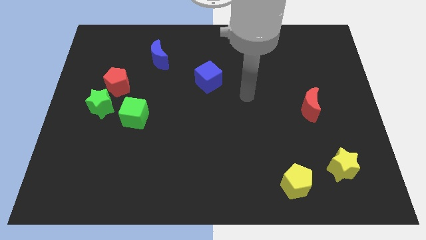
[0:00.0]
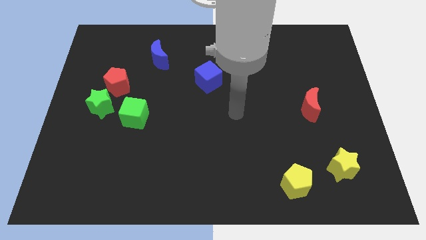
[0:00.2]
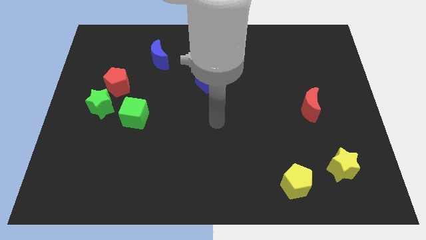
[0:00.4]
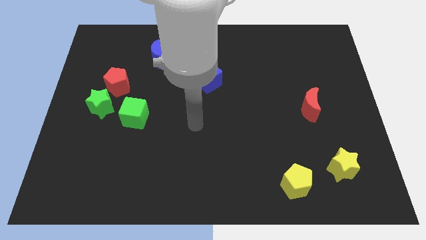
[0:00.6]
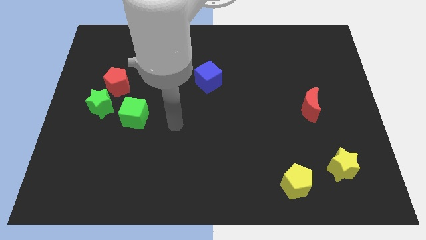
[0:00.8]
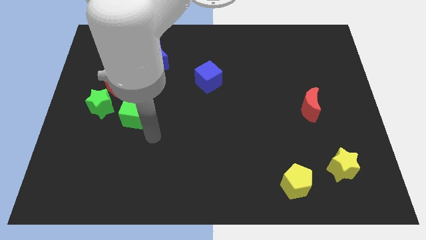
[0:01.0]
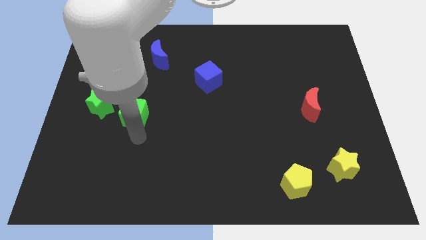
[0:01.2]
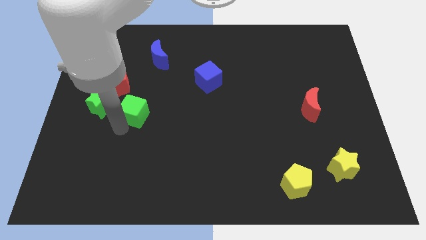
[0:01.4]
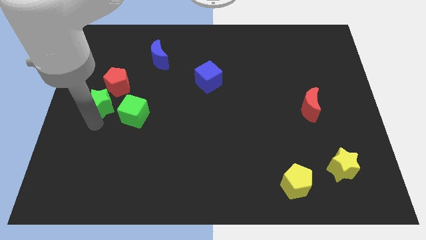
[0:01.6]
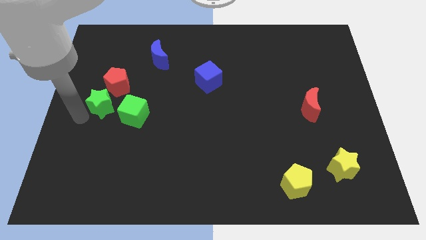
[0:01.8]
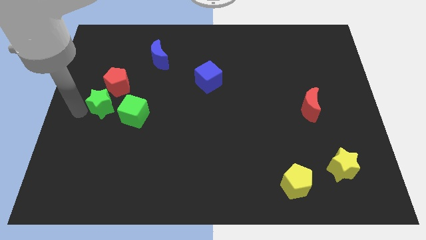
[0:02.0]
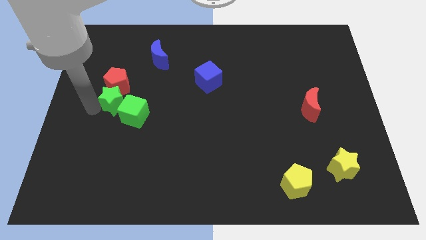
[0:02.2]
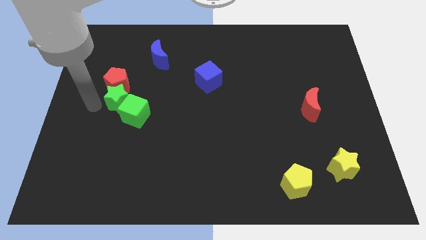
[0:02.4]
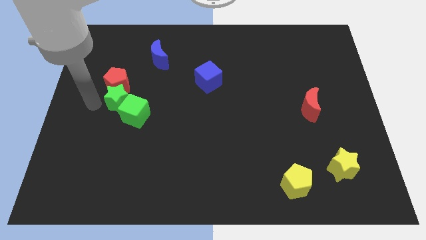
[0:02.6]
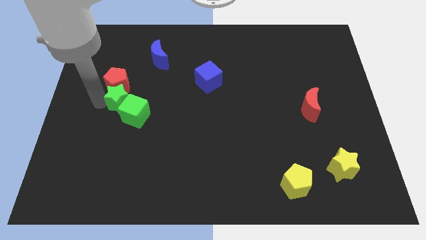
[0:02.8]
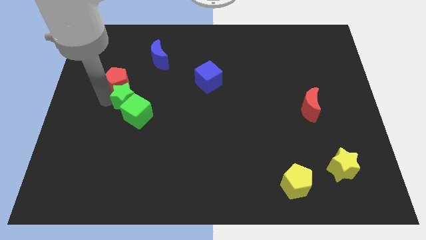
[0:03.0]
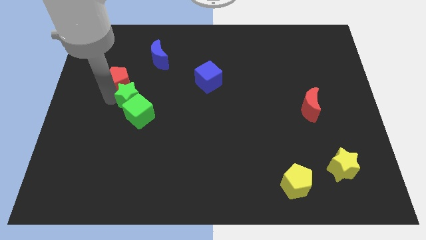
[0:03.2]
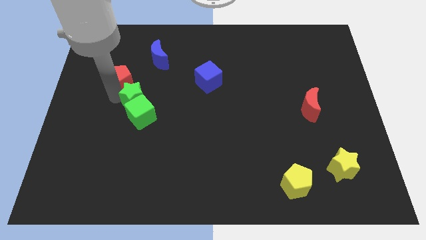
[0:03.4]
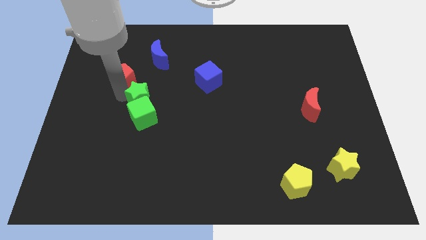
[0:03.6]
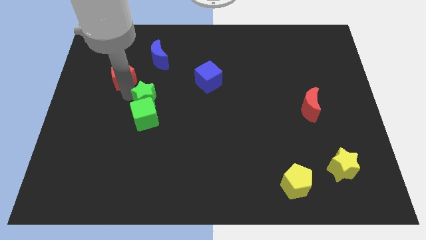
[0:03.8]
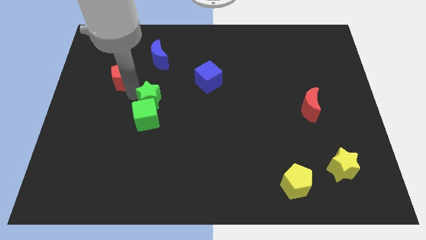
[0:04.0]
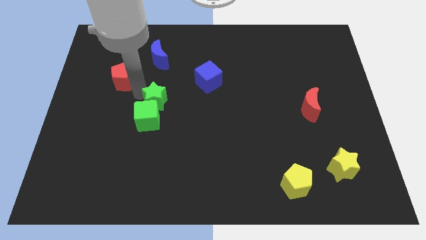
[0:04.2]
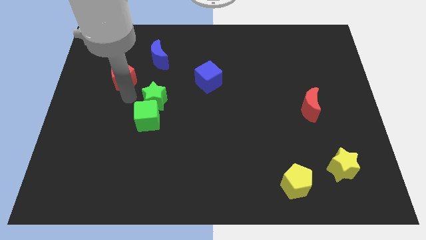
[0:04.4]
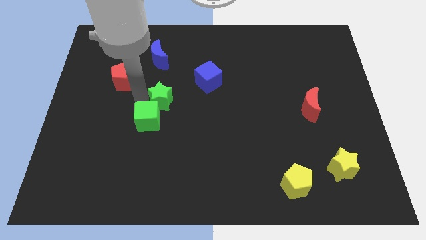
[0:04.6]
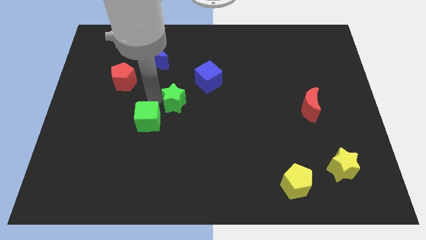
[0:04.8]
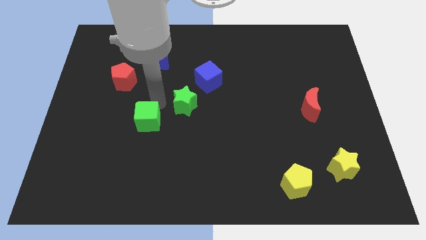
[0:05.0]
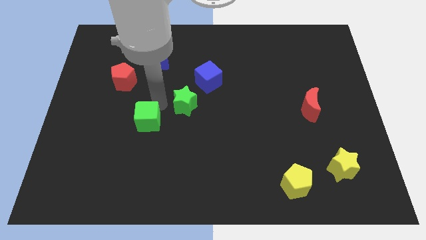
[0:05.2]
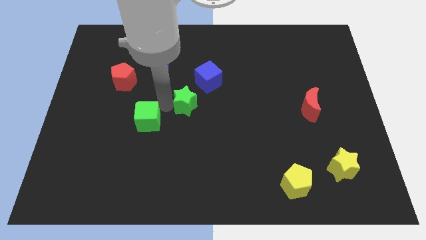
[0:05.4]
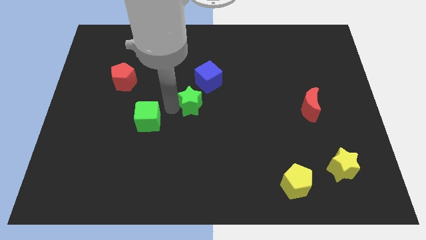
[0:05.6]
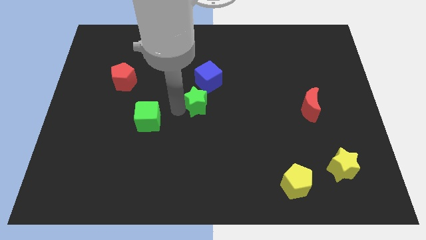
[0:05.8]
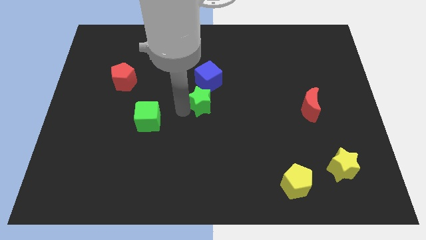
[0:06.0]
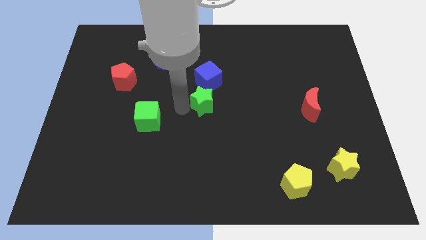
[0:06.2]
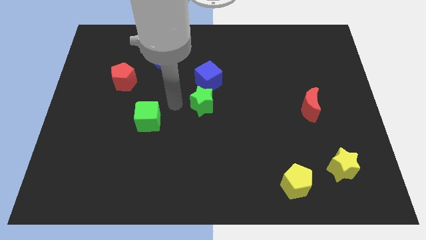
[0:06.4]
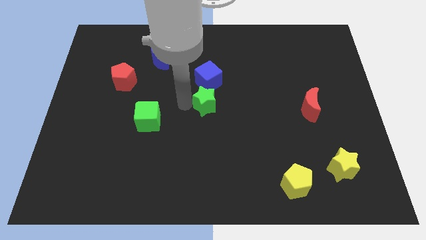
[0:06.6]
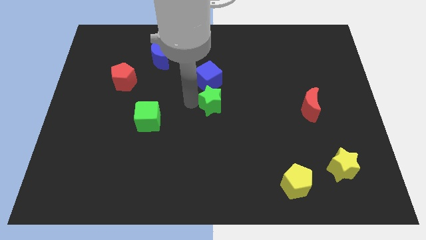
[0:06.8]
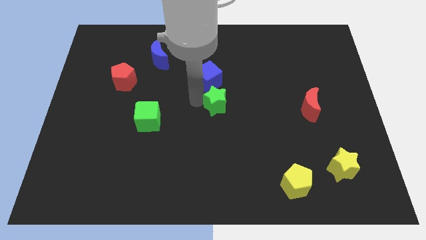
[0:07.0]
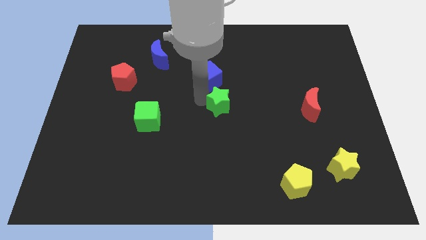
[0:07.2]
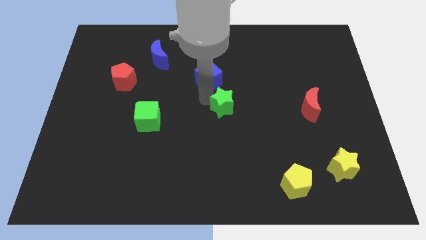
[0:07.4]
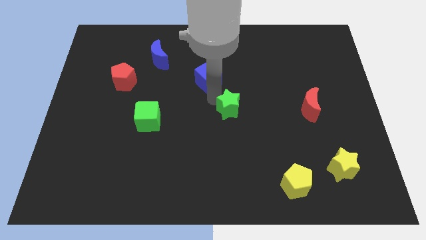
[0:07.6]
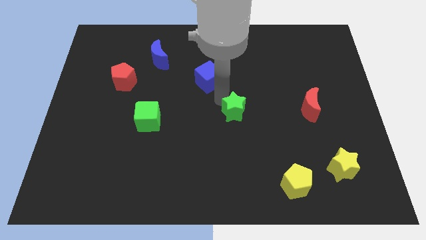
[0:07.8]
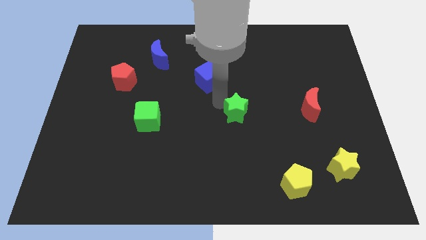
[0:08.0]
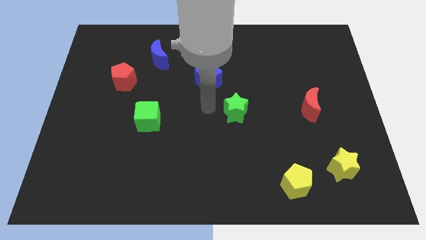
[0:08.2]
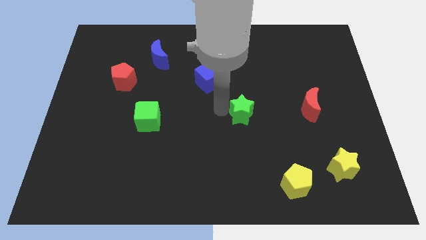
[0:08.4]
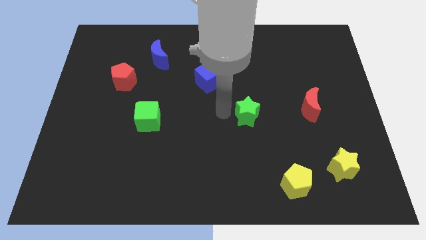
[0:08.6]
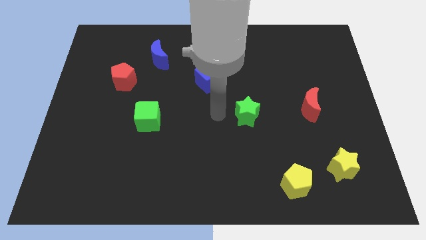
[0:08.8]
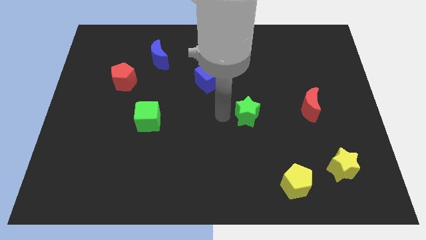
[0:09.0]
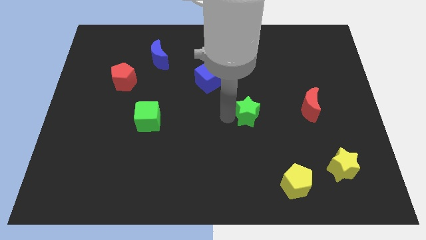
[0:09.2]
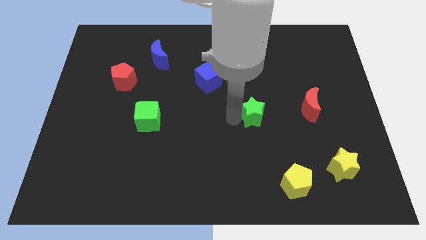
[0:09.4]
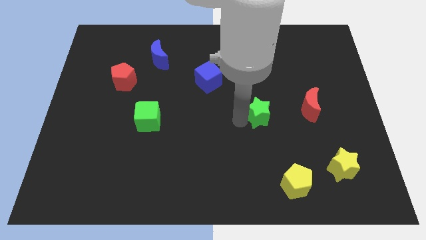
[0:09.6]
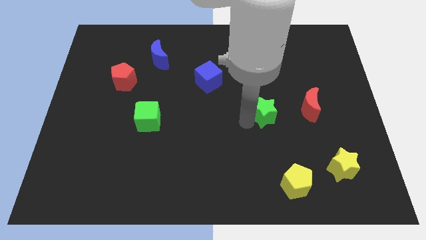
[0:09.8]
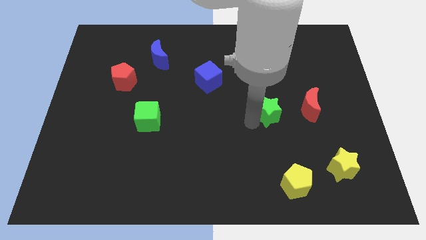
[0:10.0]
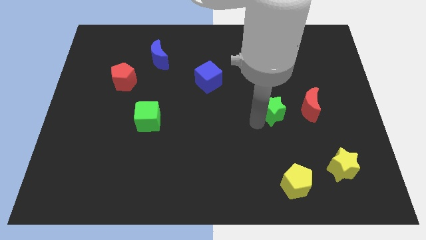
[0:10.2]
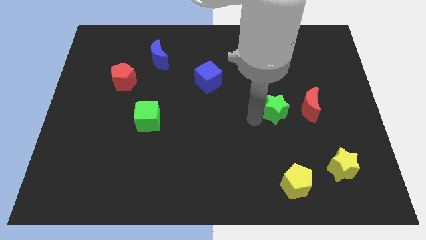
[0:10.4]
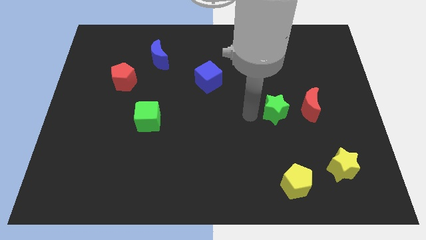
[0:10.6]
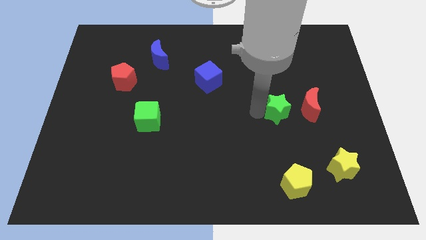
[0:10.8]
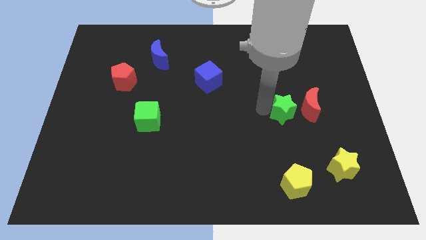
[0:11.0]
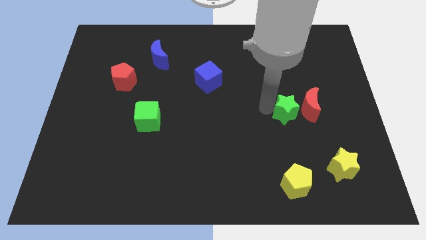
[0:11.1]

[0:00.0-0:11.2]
push the green star close to the red moon

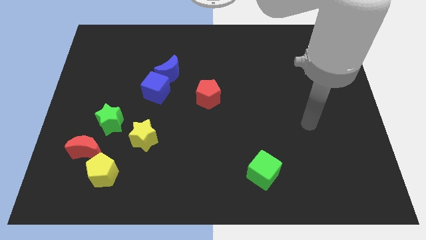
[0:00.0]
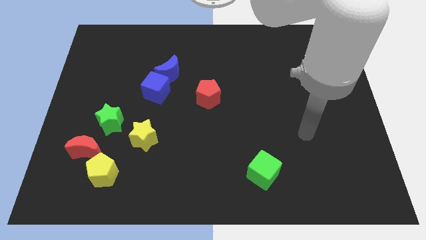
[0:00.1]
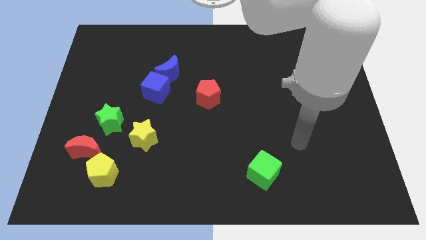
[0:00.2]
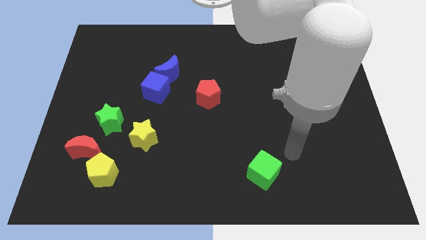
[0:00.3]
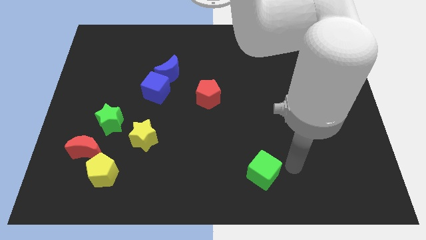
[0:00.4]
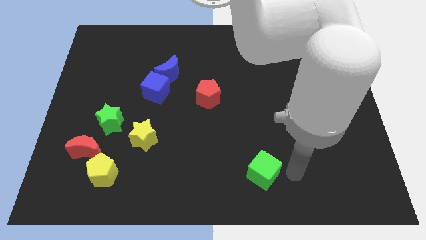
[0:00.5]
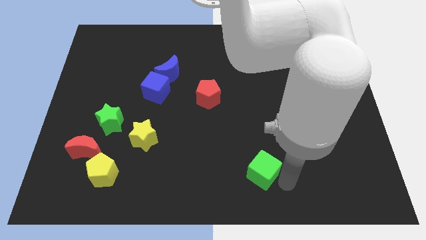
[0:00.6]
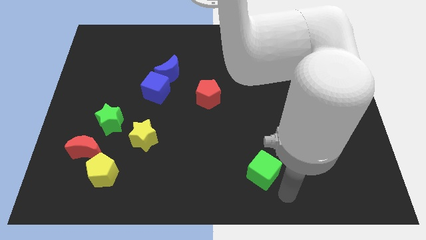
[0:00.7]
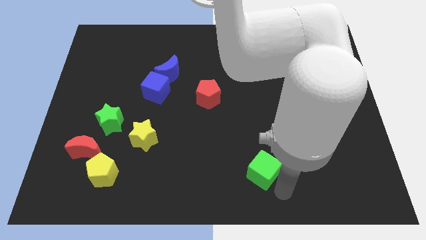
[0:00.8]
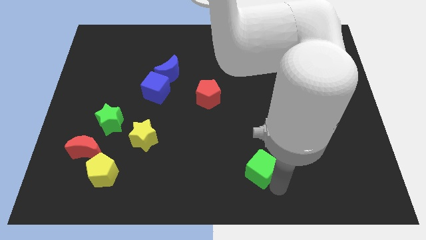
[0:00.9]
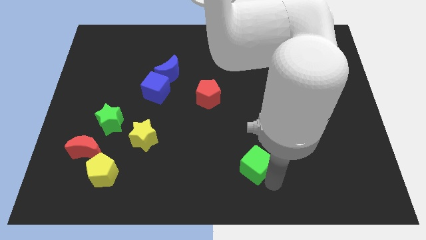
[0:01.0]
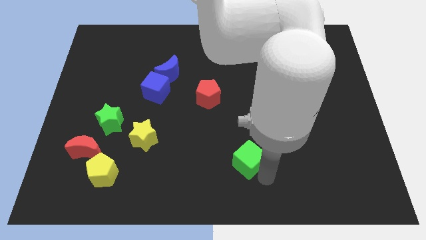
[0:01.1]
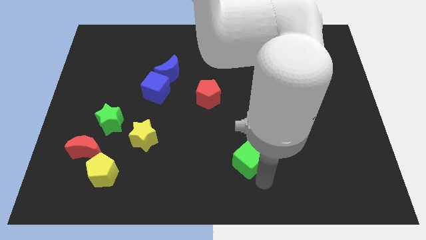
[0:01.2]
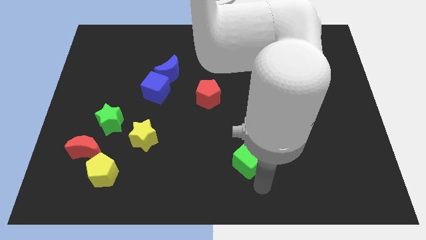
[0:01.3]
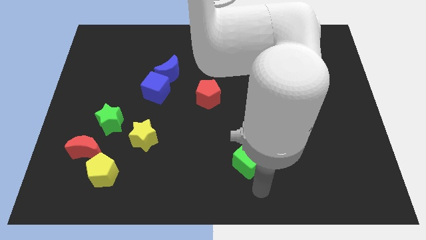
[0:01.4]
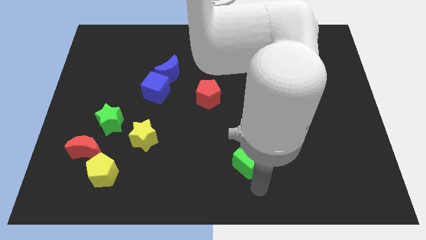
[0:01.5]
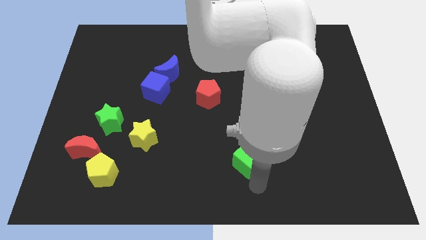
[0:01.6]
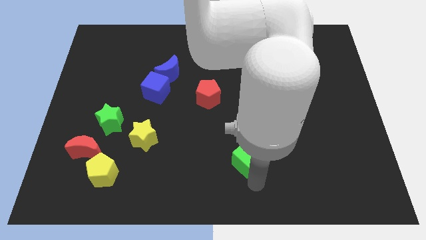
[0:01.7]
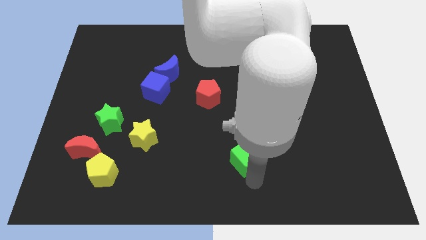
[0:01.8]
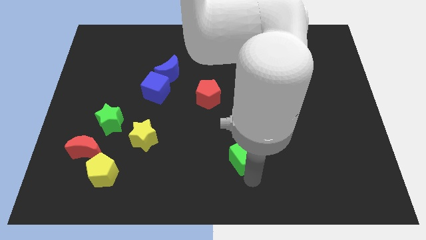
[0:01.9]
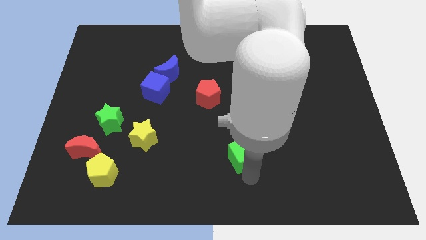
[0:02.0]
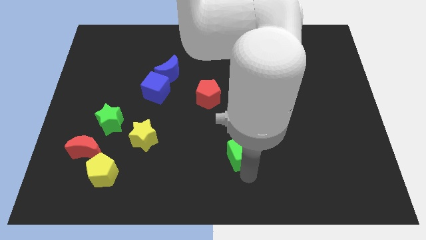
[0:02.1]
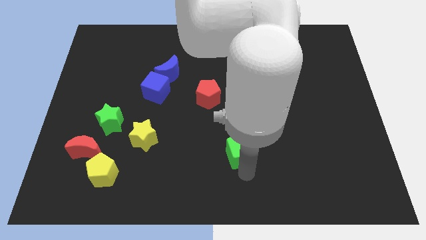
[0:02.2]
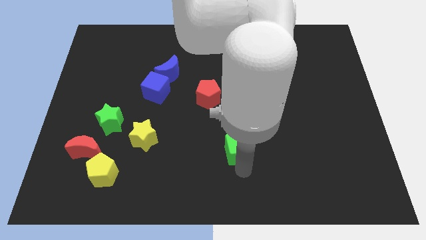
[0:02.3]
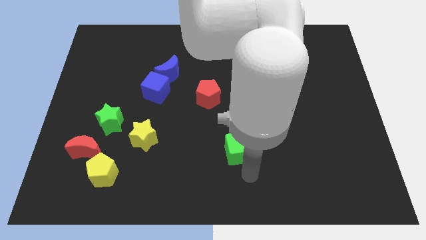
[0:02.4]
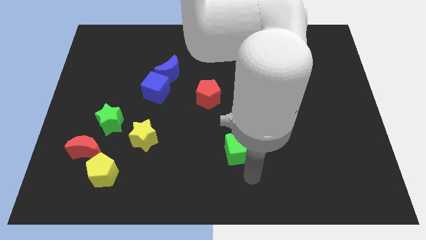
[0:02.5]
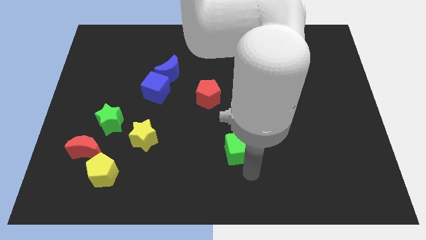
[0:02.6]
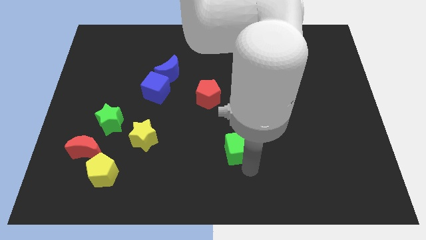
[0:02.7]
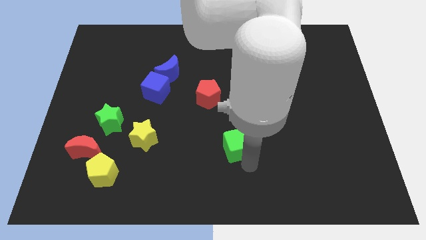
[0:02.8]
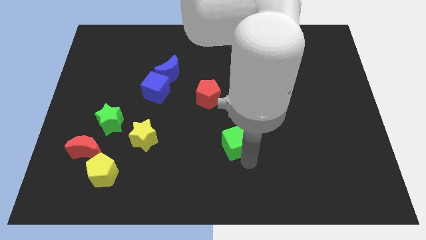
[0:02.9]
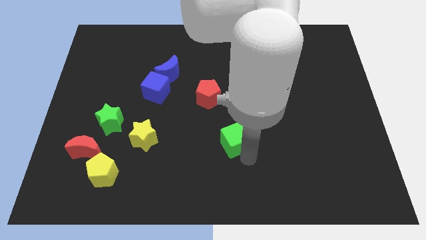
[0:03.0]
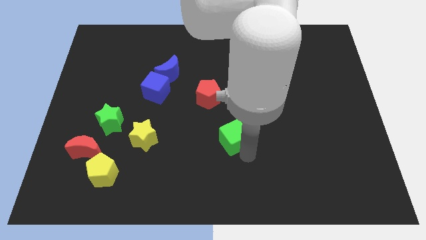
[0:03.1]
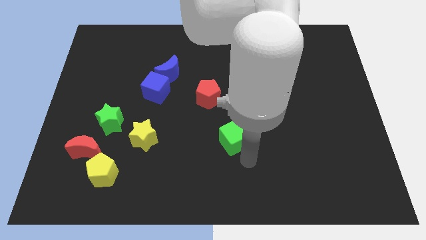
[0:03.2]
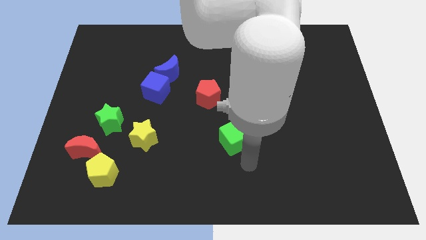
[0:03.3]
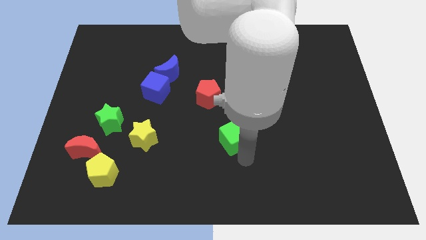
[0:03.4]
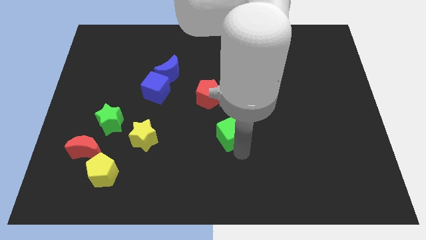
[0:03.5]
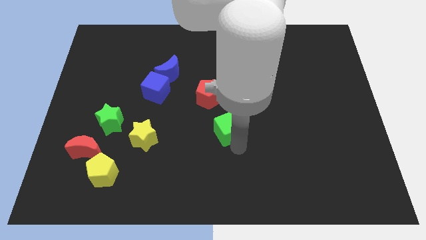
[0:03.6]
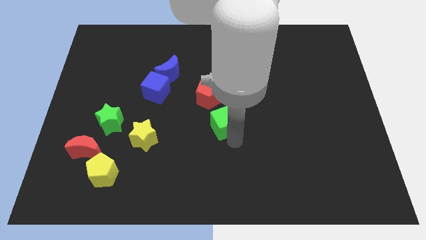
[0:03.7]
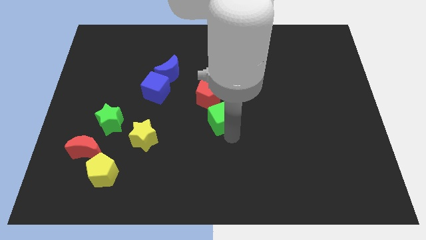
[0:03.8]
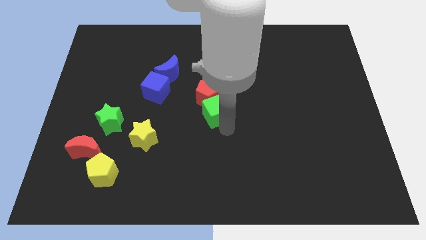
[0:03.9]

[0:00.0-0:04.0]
move the green cube next to the red pentagon
